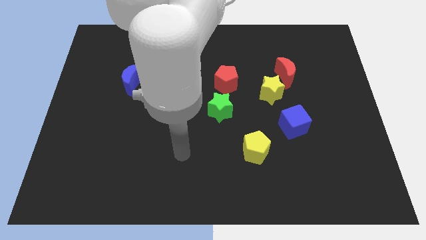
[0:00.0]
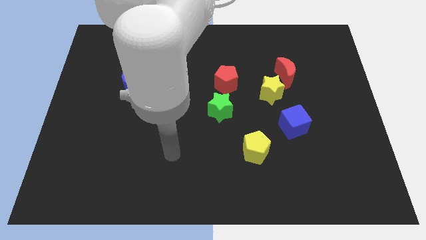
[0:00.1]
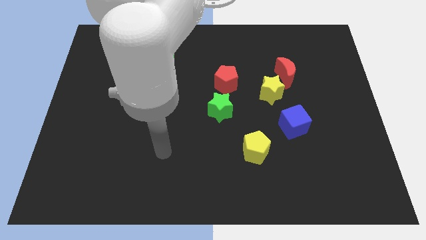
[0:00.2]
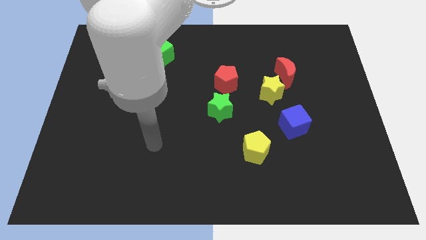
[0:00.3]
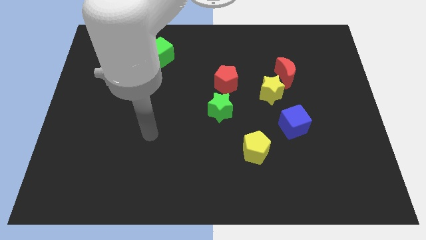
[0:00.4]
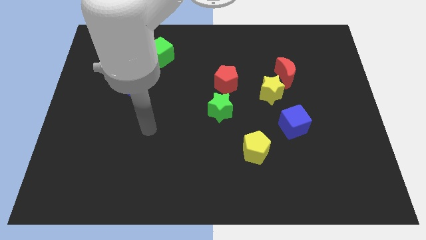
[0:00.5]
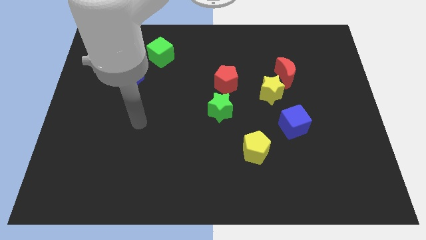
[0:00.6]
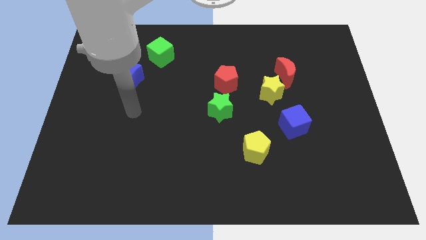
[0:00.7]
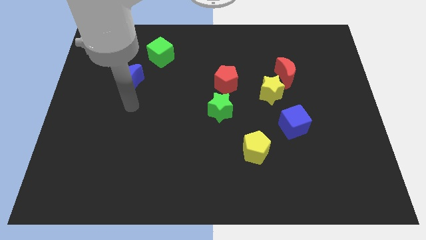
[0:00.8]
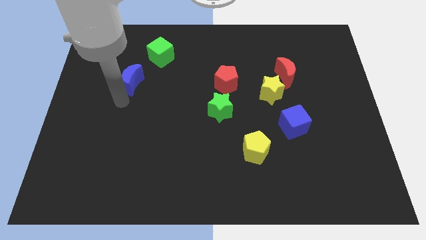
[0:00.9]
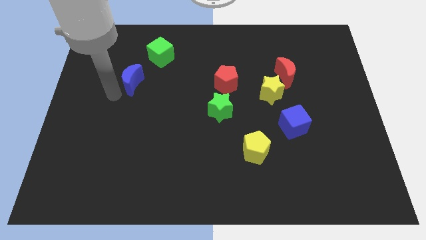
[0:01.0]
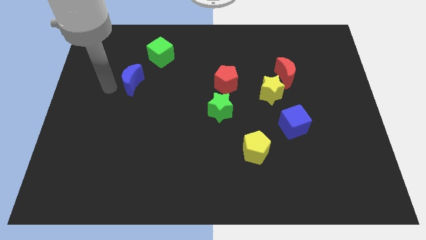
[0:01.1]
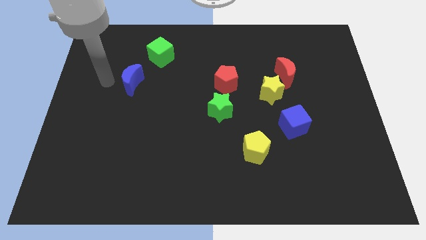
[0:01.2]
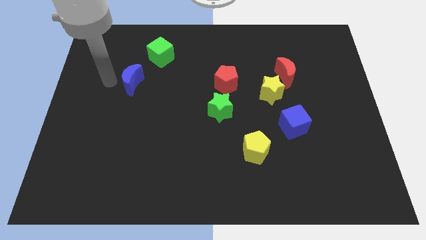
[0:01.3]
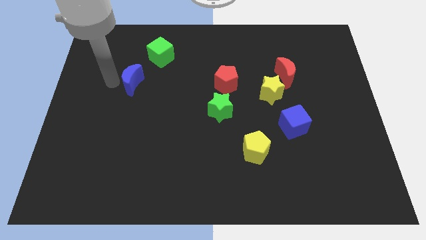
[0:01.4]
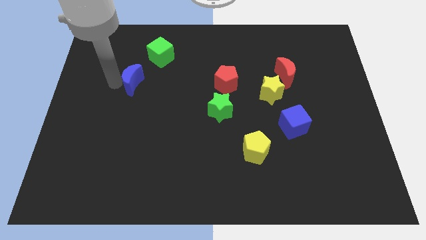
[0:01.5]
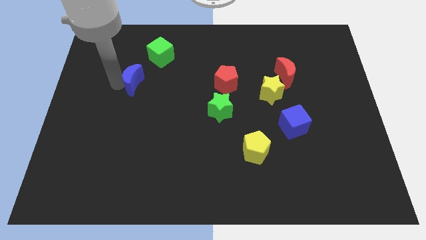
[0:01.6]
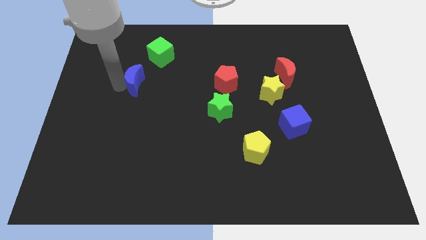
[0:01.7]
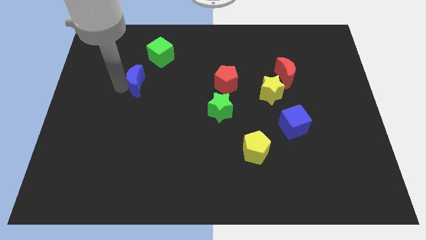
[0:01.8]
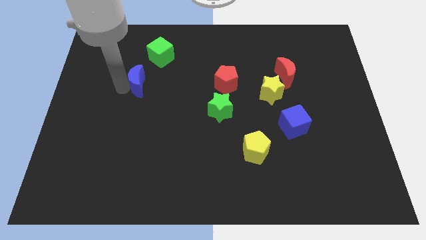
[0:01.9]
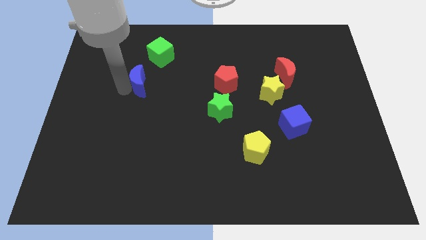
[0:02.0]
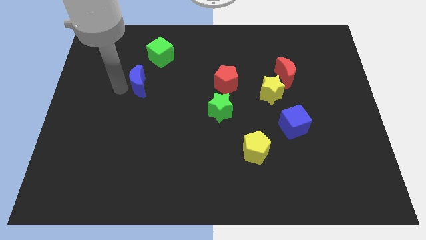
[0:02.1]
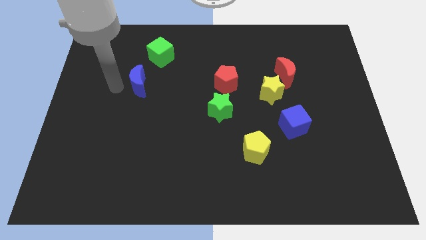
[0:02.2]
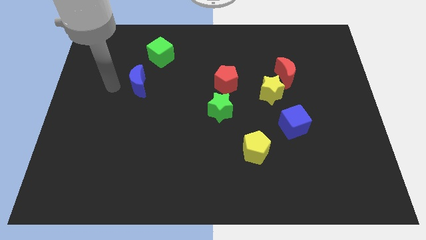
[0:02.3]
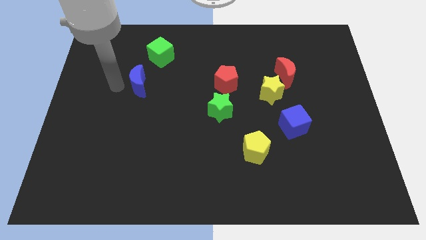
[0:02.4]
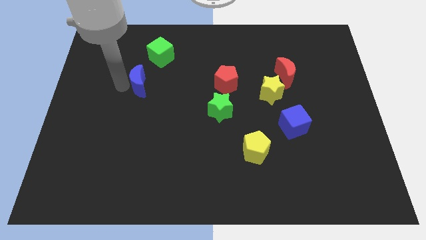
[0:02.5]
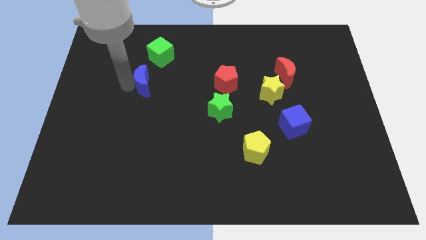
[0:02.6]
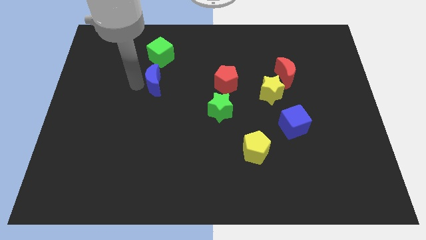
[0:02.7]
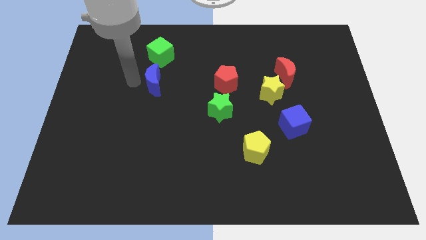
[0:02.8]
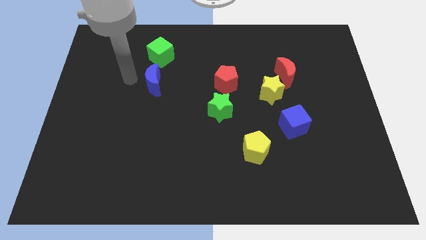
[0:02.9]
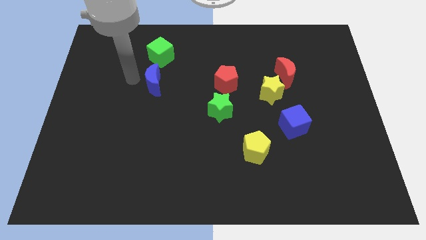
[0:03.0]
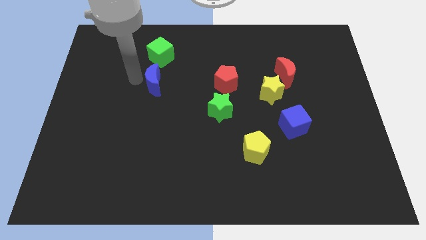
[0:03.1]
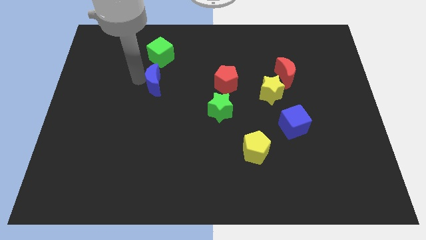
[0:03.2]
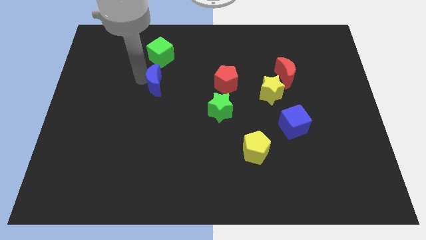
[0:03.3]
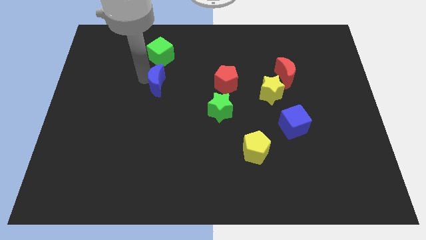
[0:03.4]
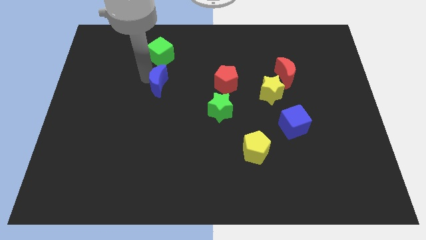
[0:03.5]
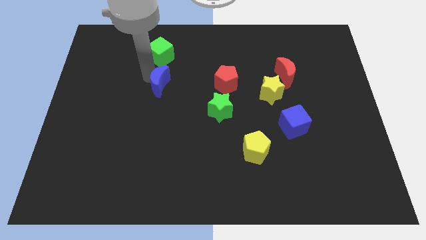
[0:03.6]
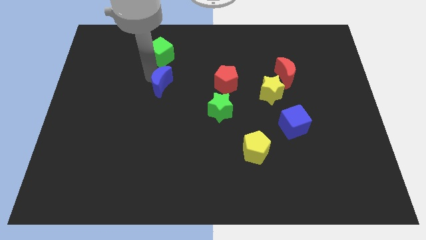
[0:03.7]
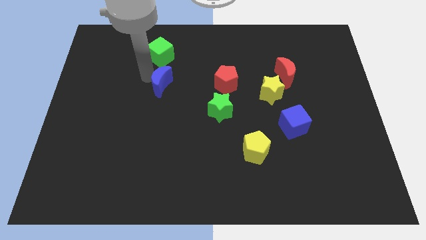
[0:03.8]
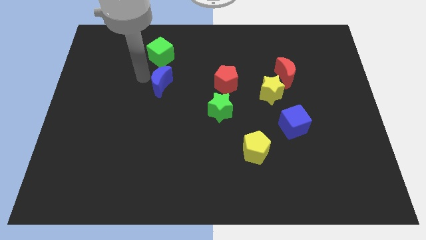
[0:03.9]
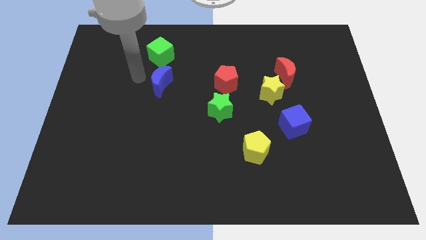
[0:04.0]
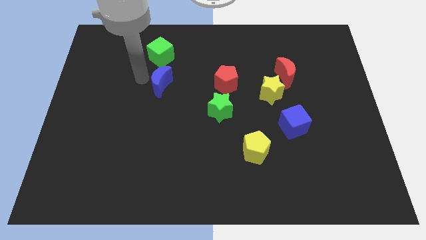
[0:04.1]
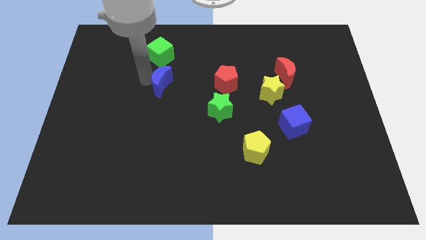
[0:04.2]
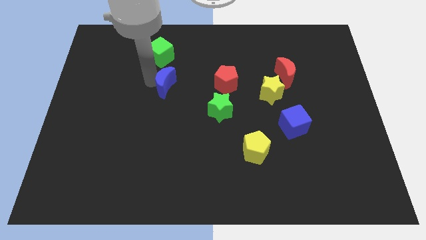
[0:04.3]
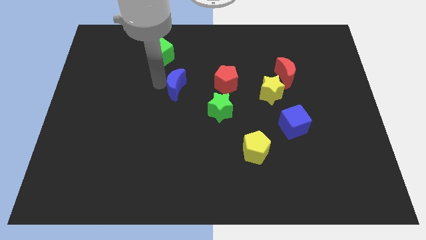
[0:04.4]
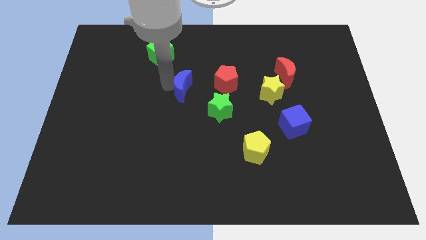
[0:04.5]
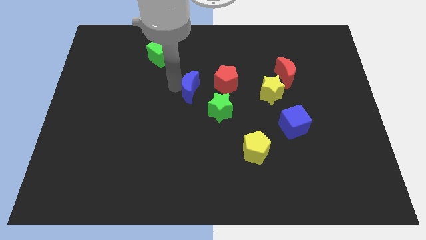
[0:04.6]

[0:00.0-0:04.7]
move the blue moon to the bottom left side of the red pentagon

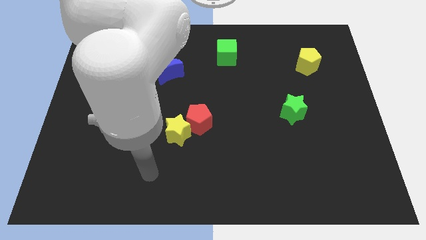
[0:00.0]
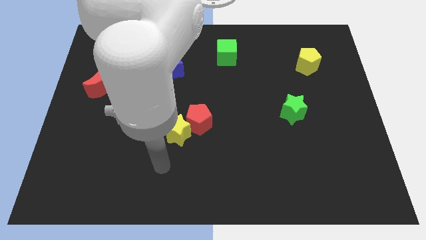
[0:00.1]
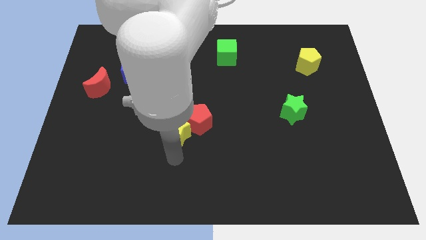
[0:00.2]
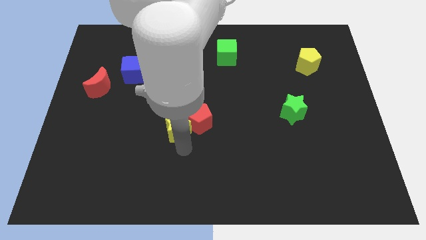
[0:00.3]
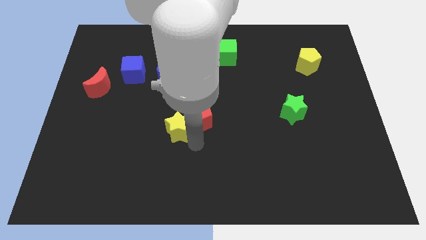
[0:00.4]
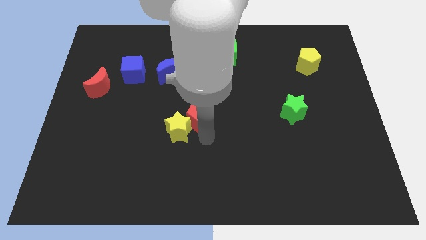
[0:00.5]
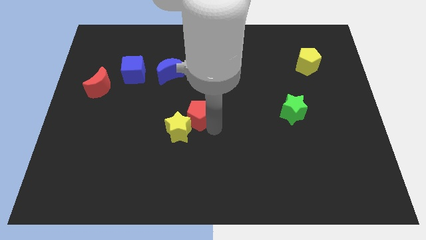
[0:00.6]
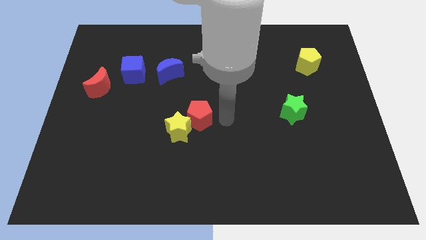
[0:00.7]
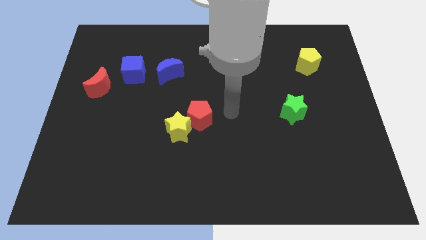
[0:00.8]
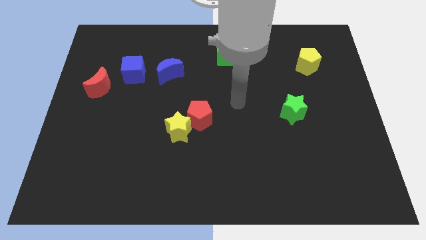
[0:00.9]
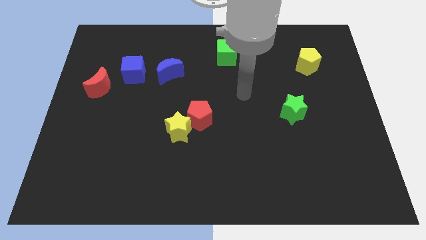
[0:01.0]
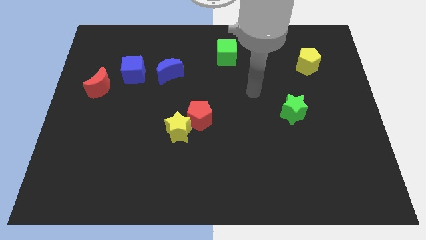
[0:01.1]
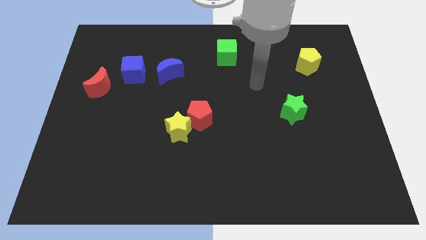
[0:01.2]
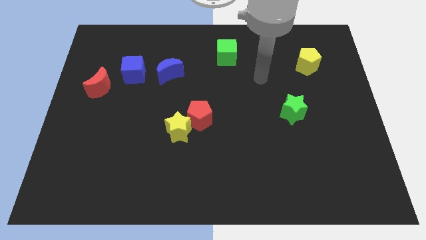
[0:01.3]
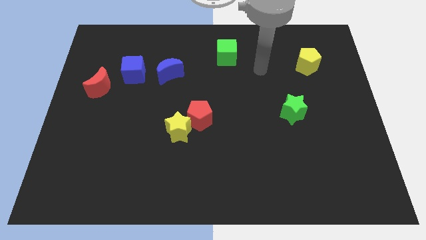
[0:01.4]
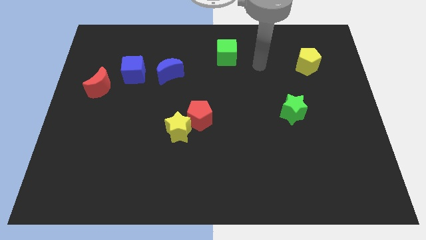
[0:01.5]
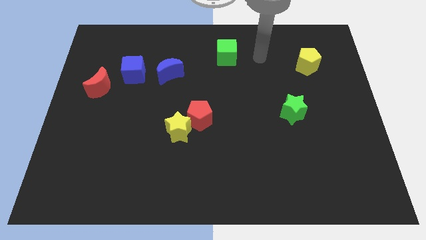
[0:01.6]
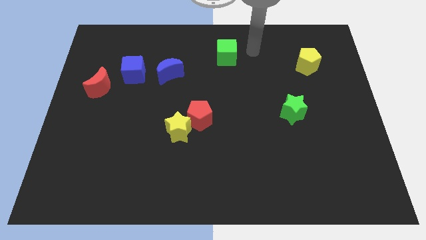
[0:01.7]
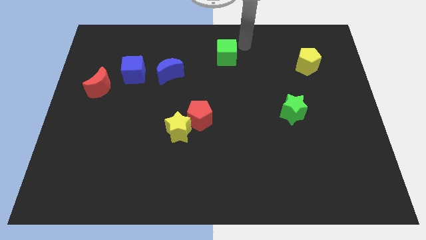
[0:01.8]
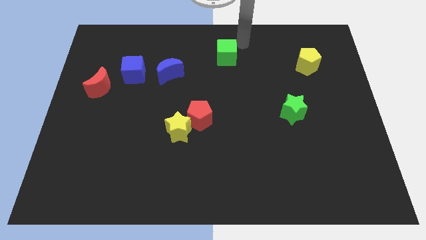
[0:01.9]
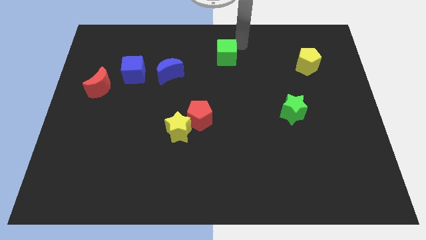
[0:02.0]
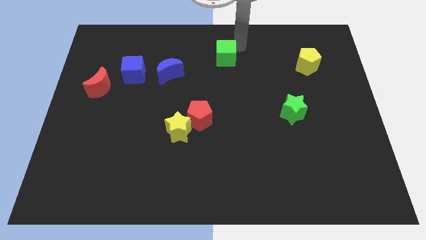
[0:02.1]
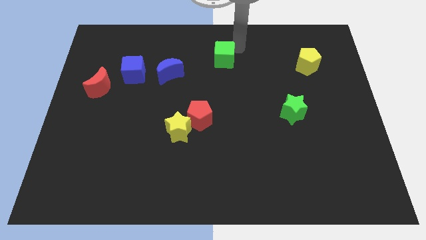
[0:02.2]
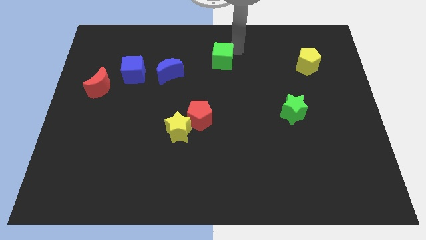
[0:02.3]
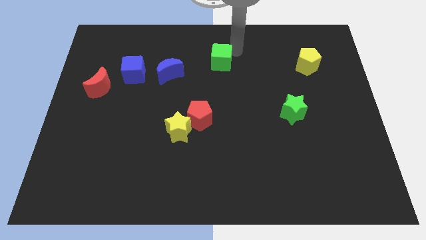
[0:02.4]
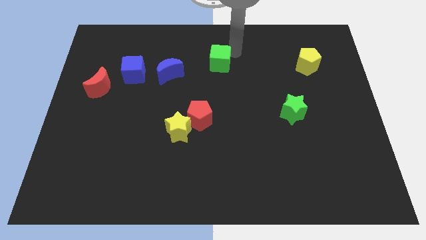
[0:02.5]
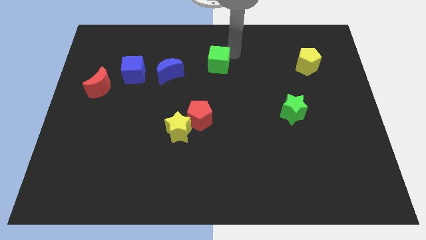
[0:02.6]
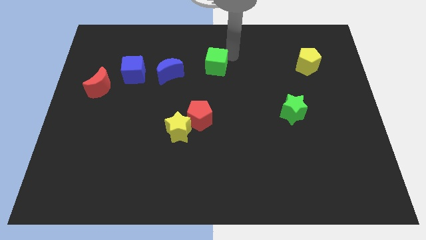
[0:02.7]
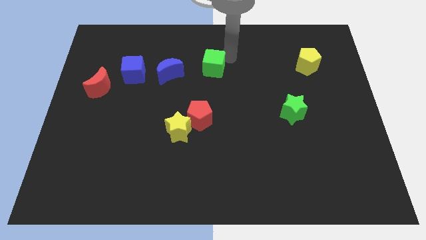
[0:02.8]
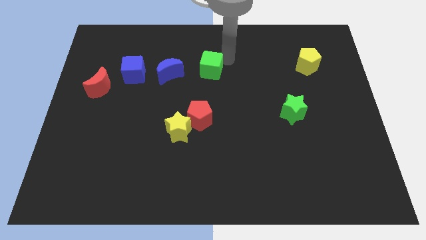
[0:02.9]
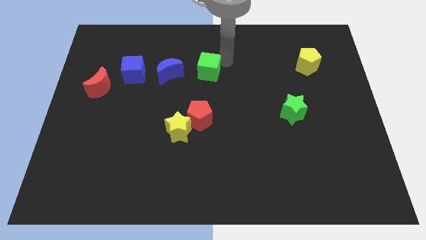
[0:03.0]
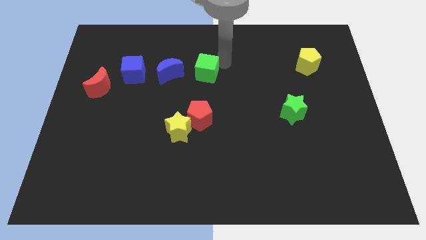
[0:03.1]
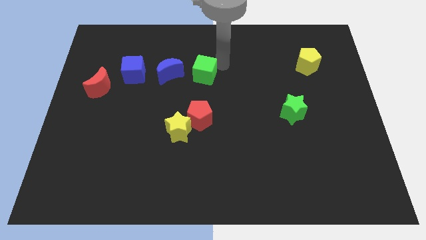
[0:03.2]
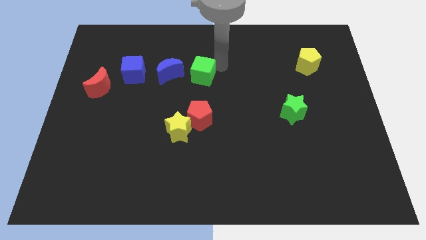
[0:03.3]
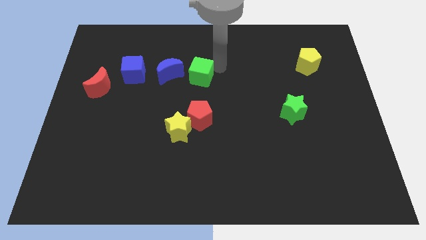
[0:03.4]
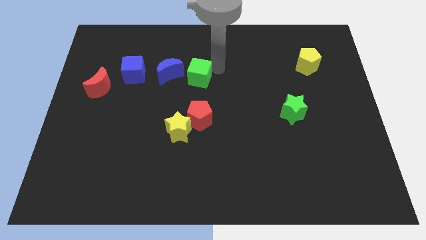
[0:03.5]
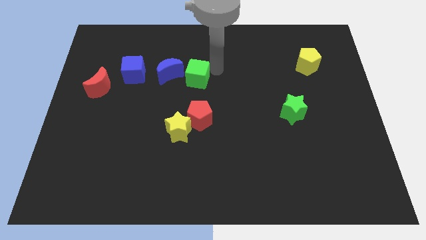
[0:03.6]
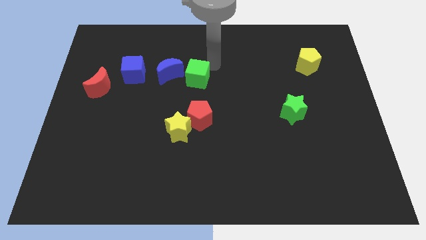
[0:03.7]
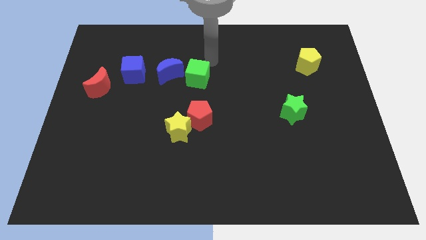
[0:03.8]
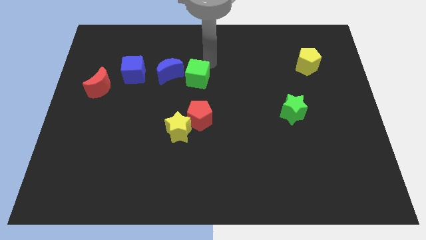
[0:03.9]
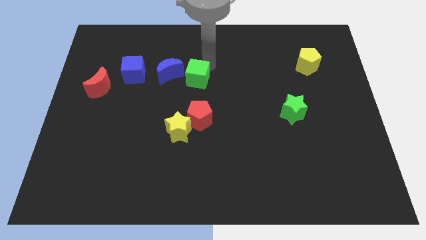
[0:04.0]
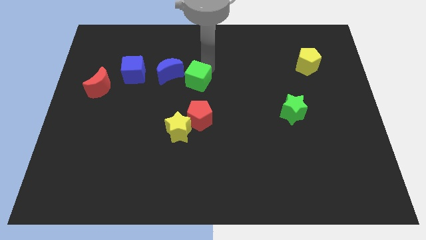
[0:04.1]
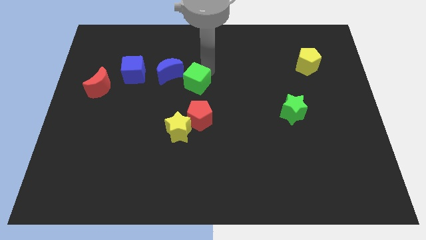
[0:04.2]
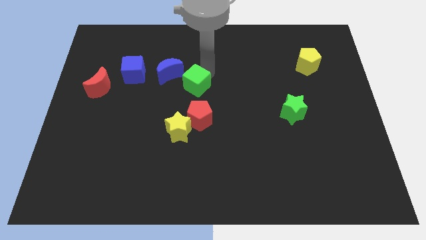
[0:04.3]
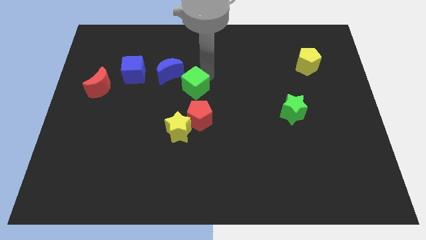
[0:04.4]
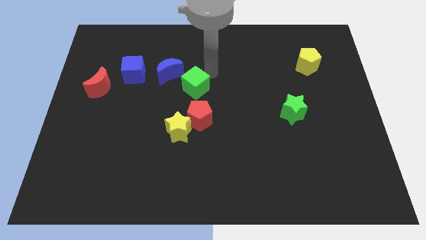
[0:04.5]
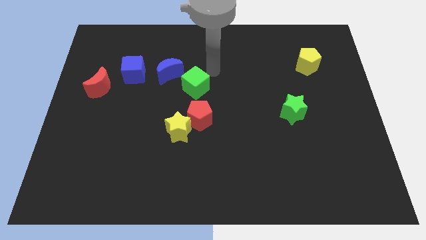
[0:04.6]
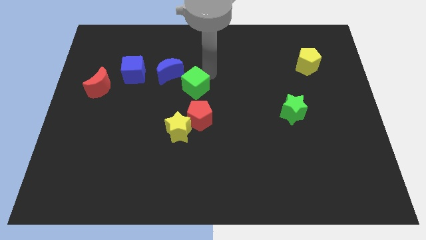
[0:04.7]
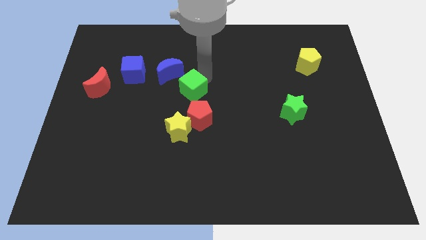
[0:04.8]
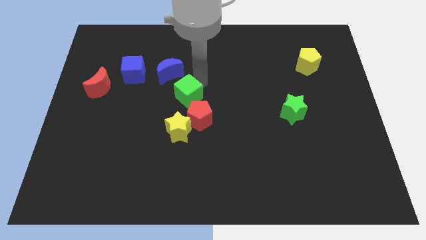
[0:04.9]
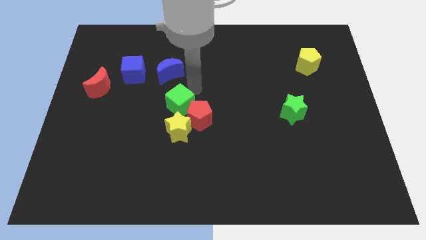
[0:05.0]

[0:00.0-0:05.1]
put the green cube to the left side of the red pentagon
